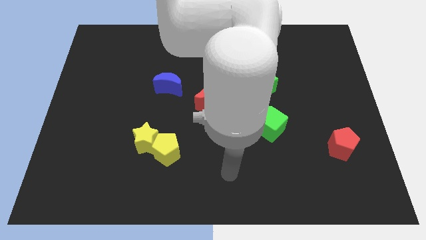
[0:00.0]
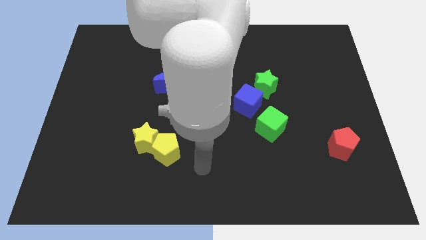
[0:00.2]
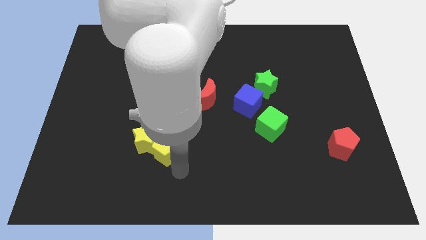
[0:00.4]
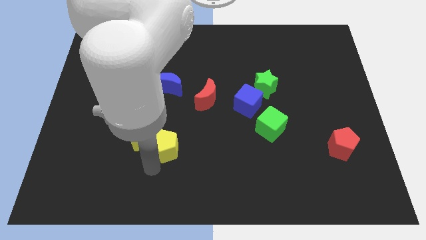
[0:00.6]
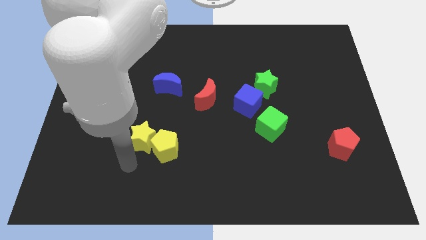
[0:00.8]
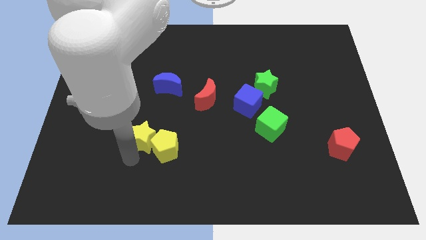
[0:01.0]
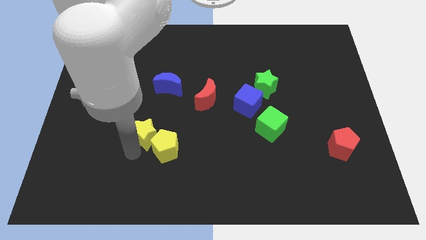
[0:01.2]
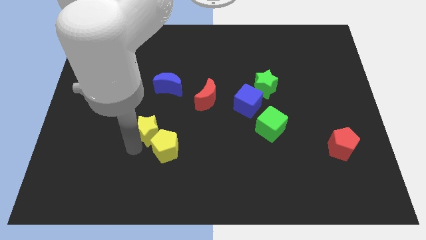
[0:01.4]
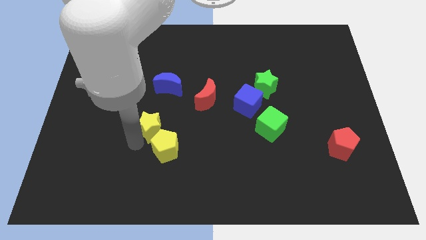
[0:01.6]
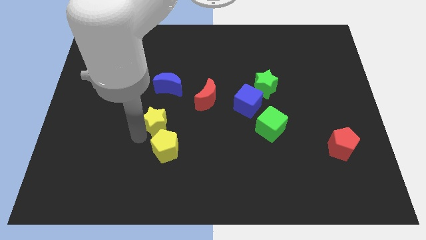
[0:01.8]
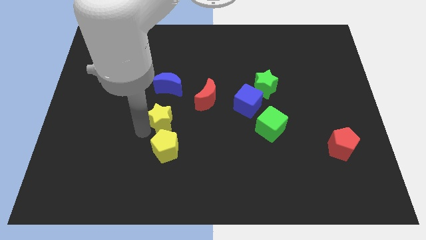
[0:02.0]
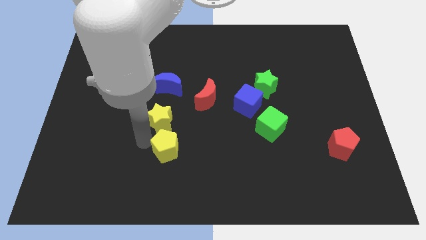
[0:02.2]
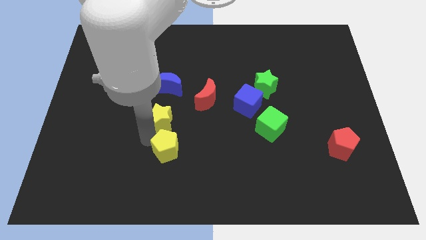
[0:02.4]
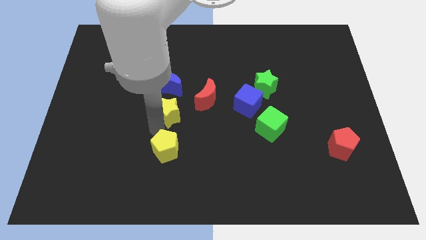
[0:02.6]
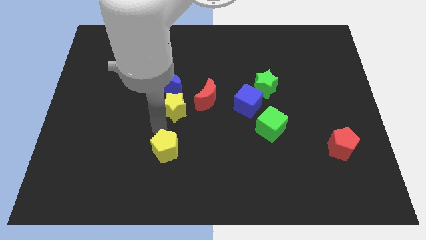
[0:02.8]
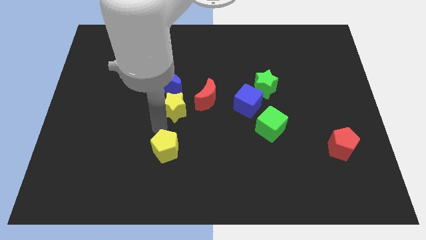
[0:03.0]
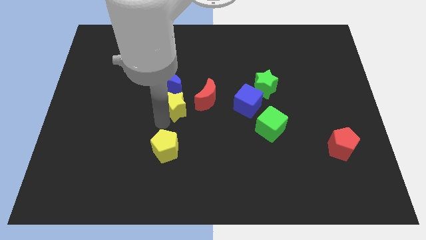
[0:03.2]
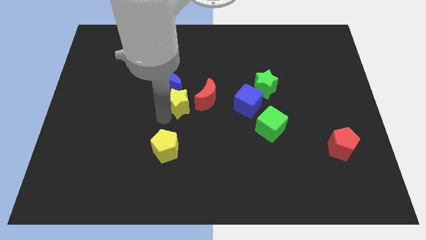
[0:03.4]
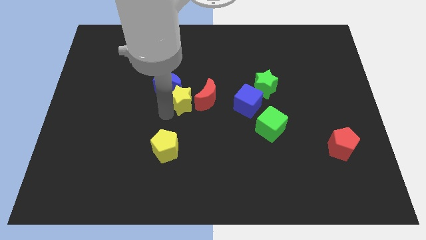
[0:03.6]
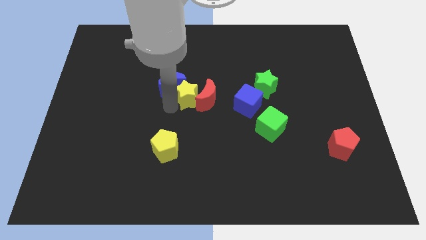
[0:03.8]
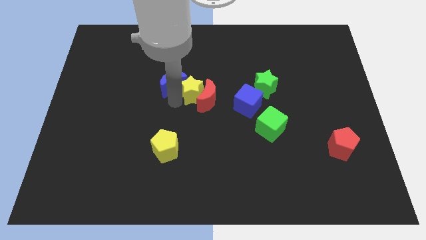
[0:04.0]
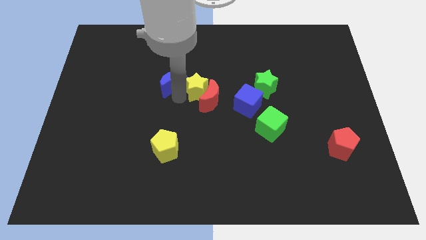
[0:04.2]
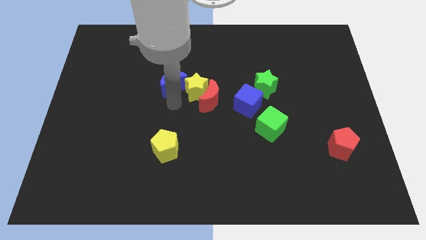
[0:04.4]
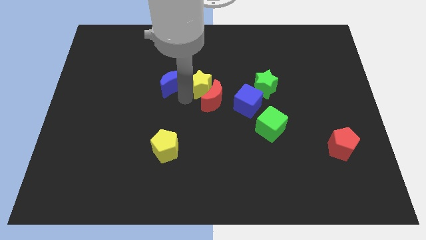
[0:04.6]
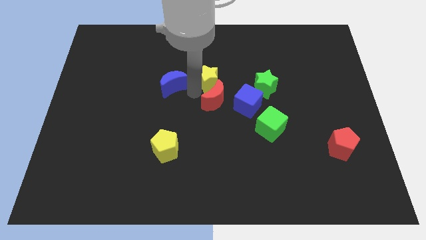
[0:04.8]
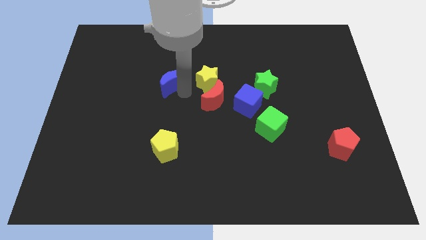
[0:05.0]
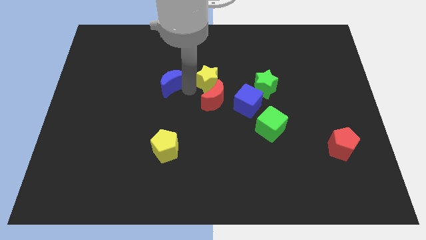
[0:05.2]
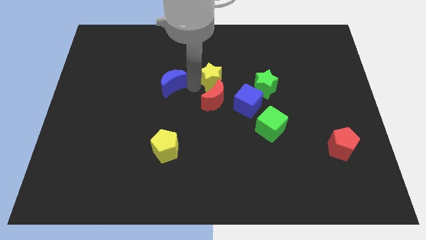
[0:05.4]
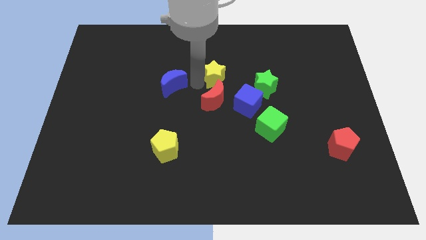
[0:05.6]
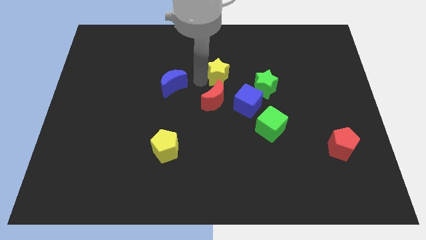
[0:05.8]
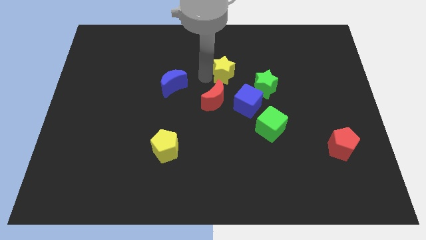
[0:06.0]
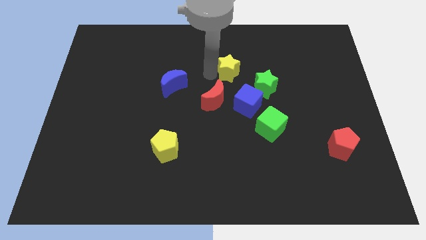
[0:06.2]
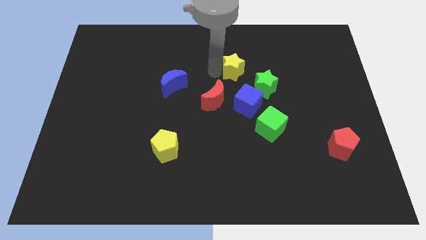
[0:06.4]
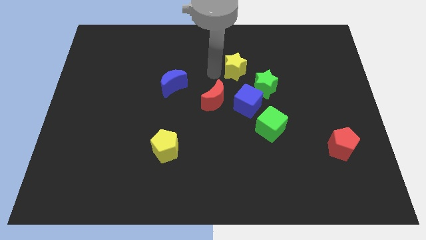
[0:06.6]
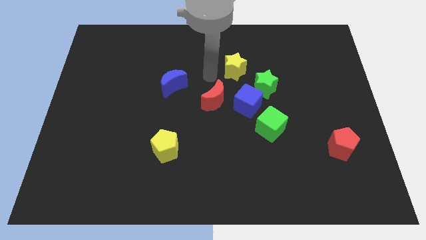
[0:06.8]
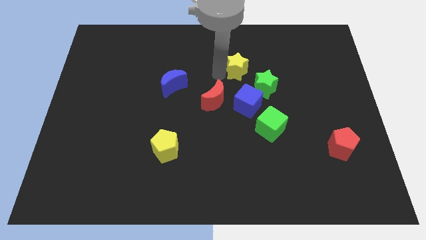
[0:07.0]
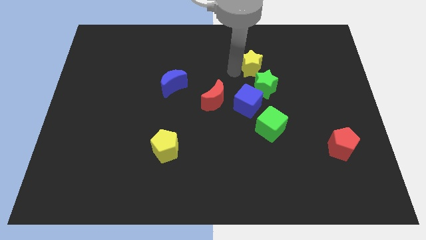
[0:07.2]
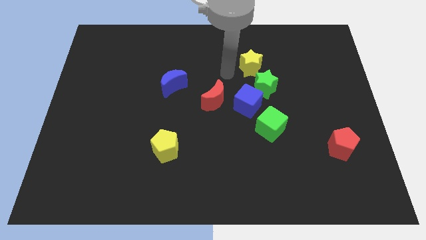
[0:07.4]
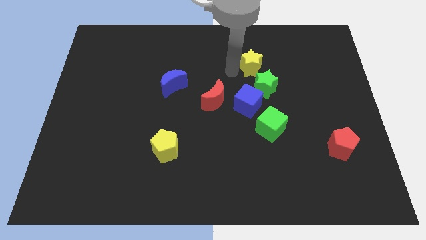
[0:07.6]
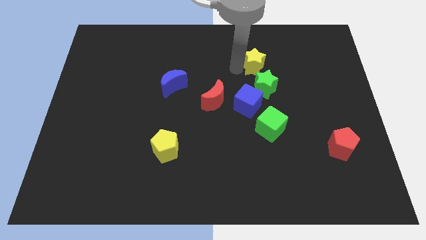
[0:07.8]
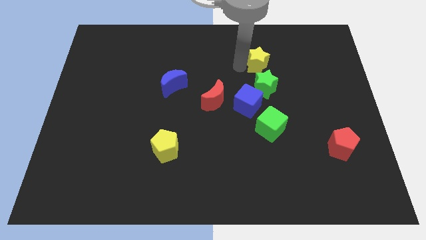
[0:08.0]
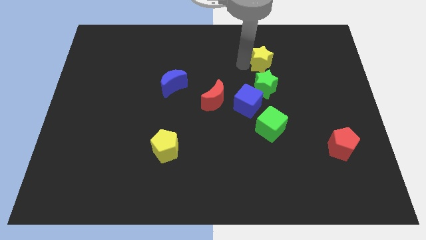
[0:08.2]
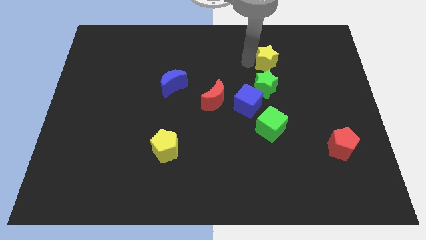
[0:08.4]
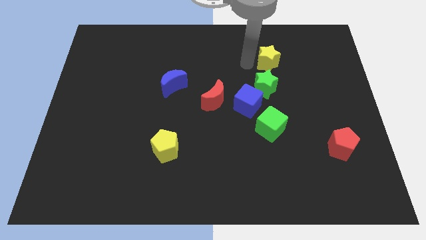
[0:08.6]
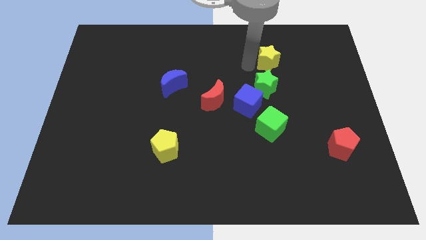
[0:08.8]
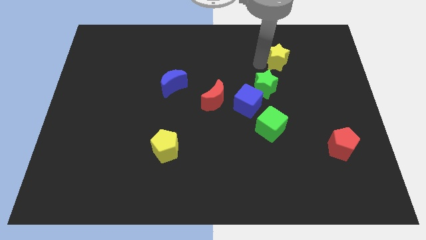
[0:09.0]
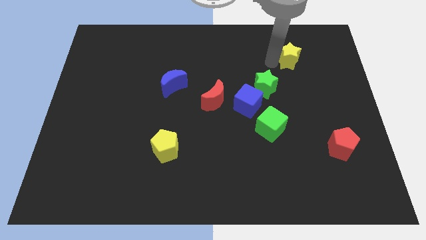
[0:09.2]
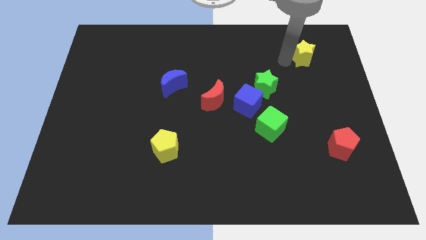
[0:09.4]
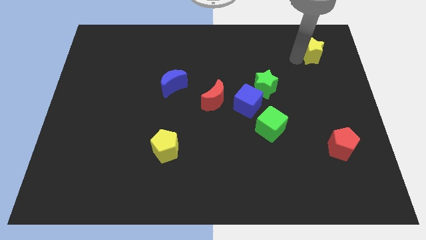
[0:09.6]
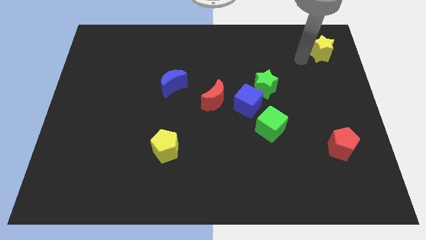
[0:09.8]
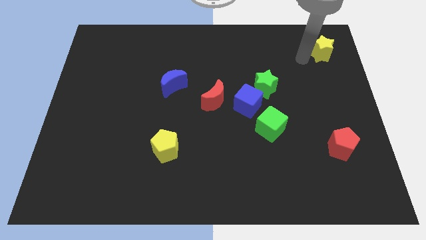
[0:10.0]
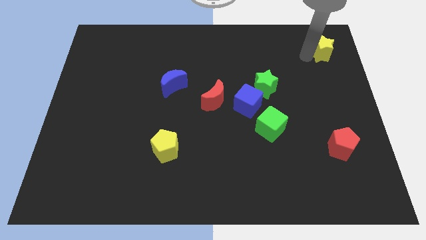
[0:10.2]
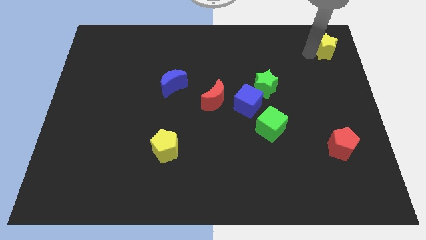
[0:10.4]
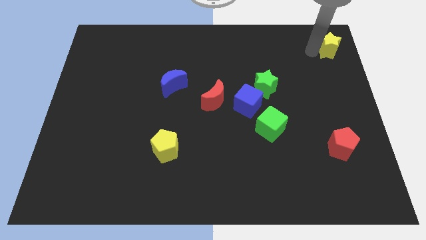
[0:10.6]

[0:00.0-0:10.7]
put the yellow star to the top right of the board

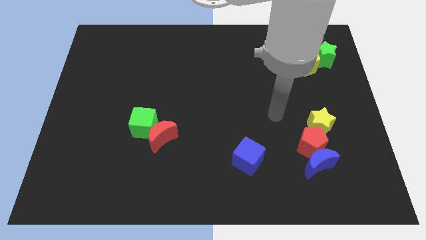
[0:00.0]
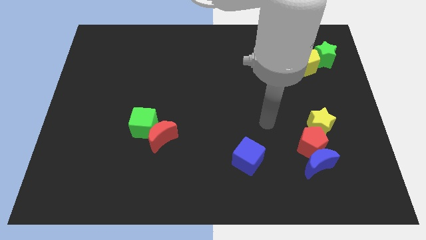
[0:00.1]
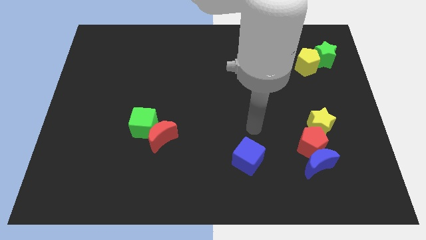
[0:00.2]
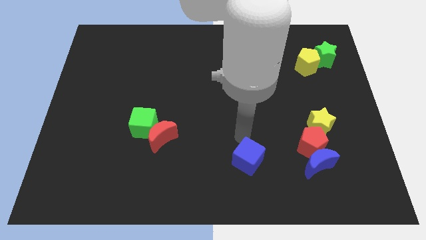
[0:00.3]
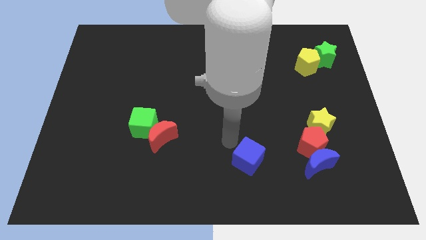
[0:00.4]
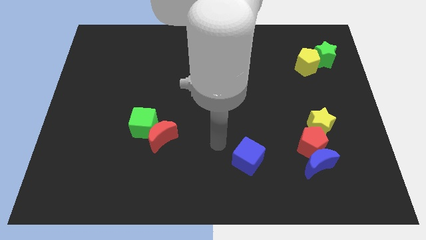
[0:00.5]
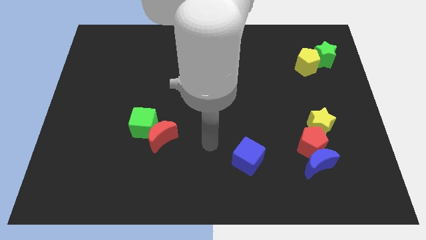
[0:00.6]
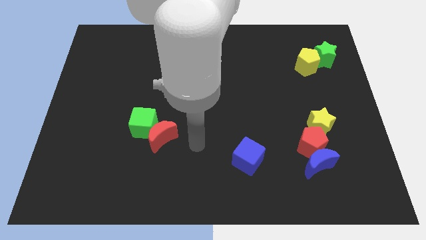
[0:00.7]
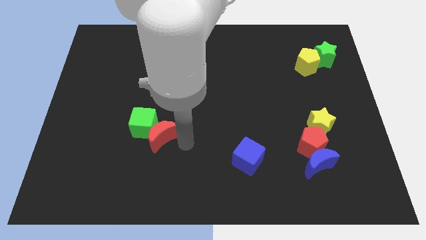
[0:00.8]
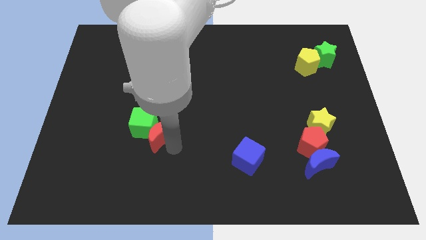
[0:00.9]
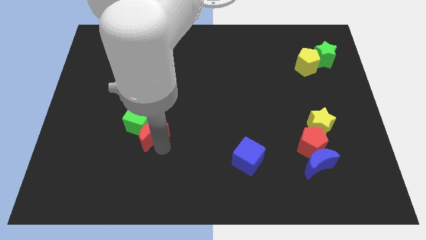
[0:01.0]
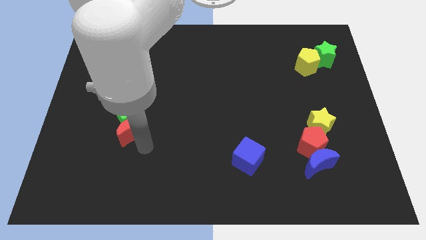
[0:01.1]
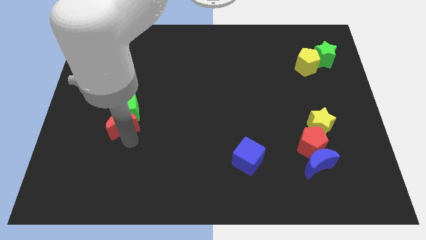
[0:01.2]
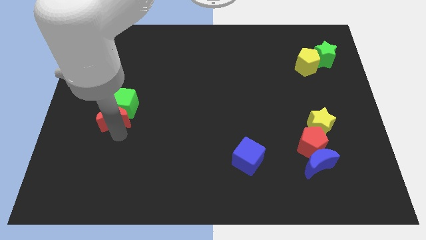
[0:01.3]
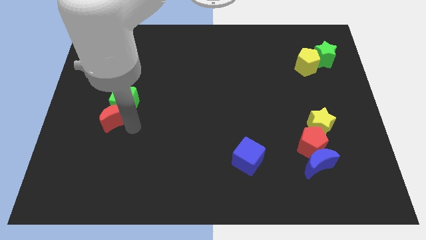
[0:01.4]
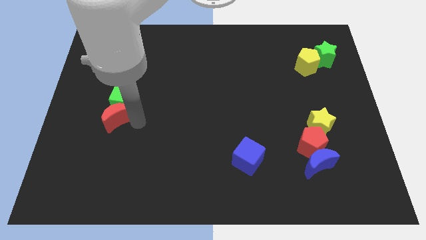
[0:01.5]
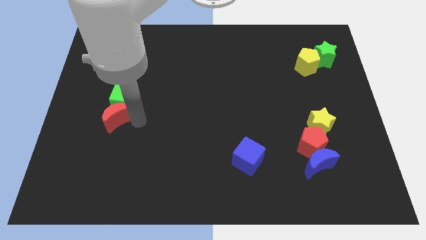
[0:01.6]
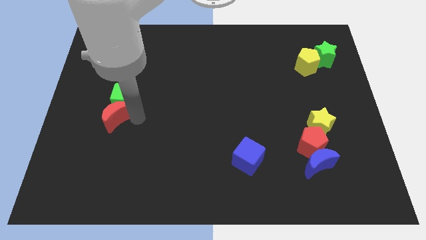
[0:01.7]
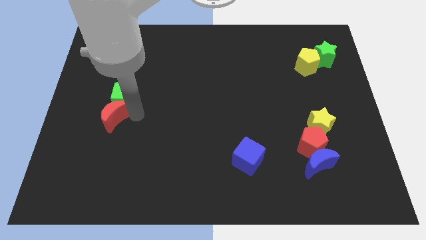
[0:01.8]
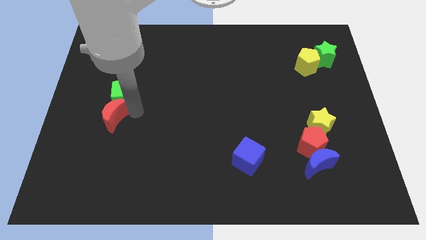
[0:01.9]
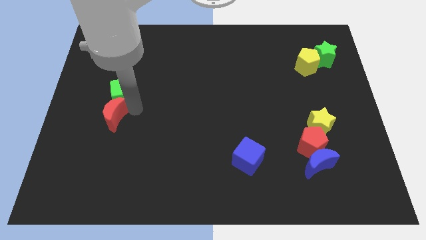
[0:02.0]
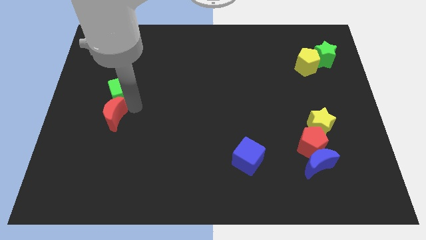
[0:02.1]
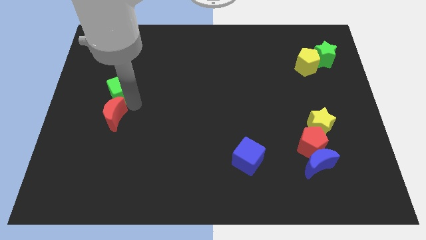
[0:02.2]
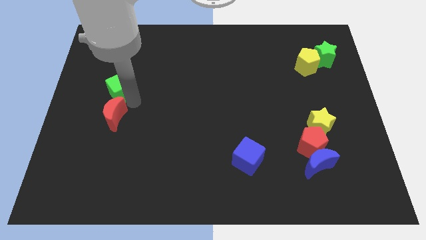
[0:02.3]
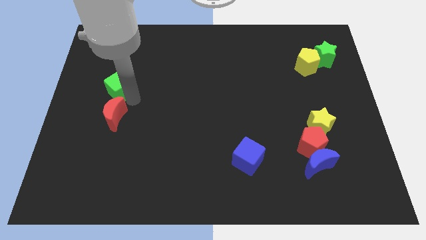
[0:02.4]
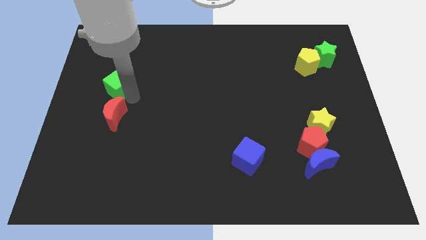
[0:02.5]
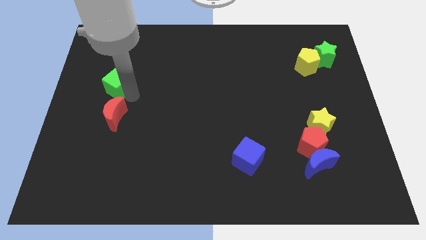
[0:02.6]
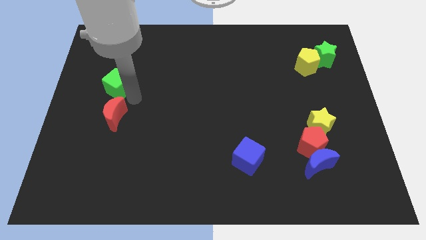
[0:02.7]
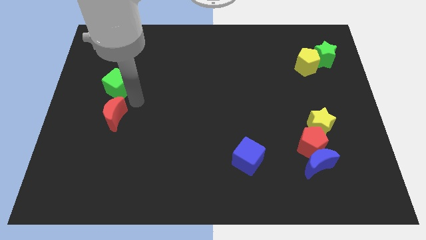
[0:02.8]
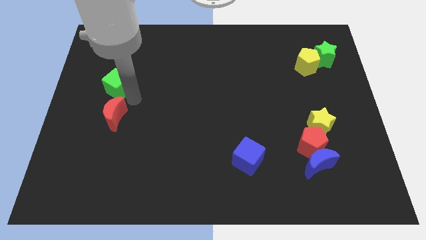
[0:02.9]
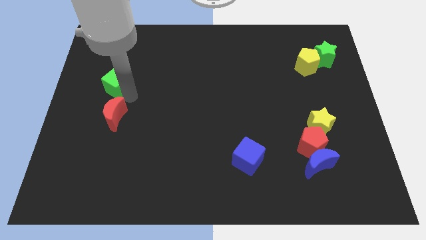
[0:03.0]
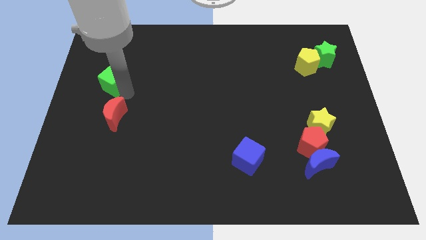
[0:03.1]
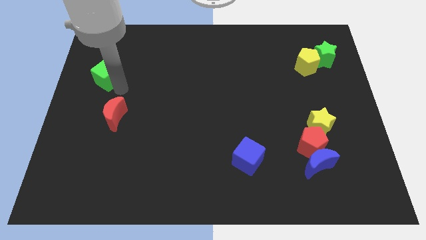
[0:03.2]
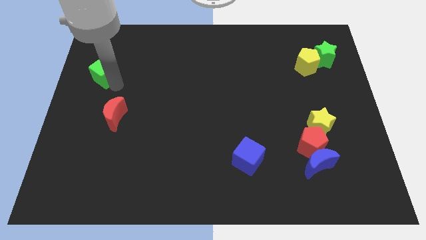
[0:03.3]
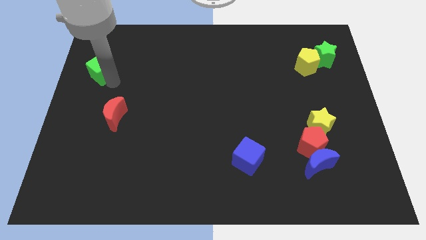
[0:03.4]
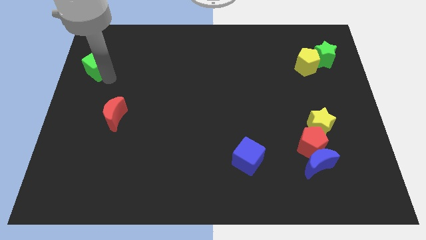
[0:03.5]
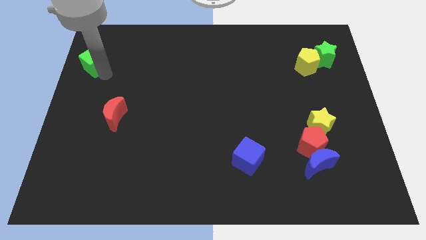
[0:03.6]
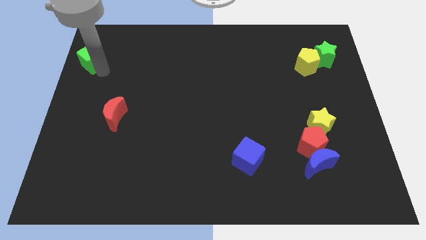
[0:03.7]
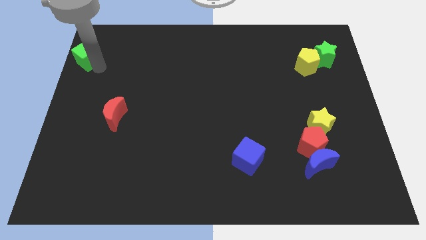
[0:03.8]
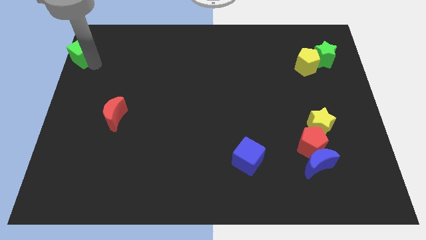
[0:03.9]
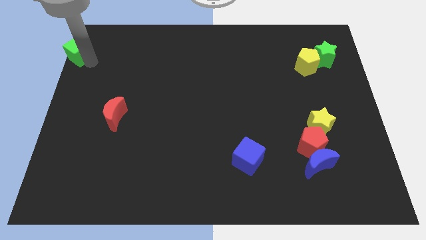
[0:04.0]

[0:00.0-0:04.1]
put the green cube to the upper left corner
